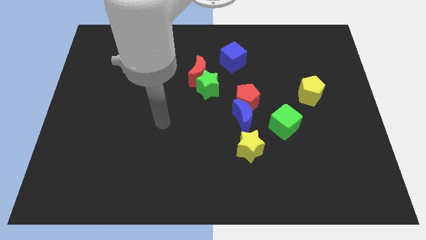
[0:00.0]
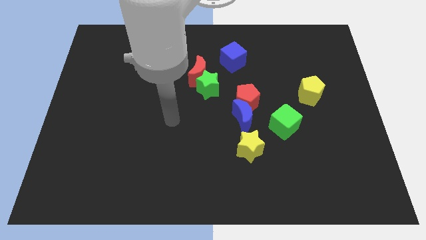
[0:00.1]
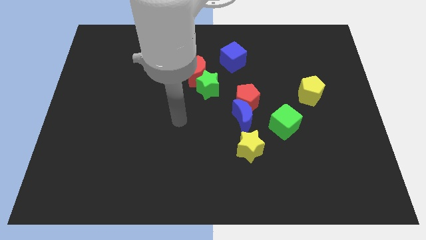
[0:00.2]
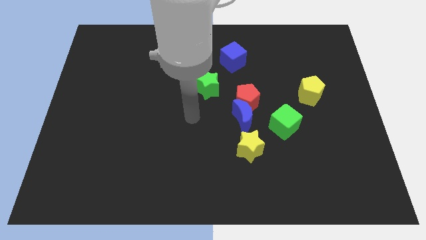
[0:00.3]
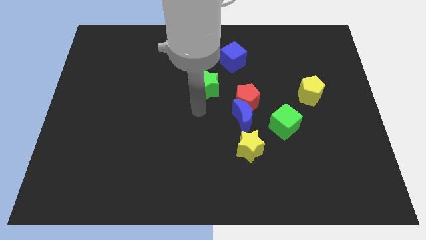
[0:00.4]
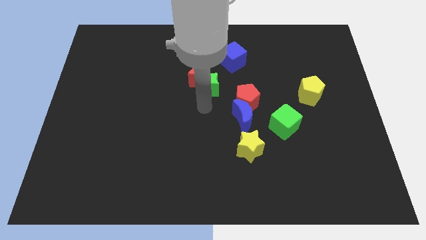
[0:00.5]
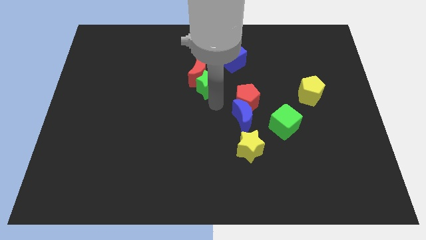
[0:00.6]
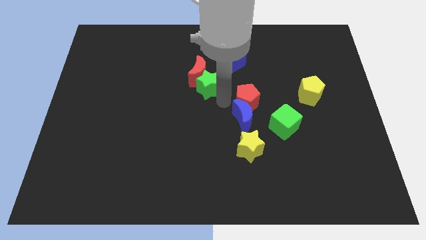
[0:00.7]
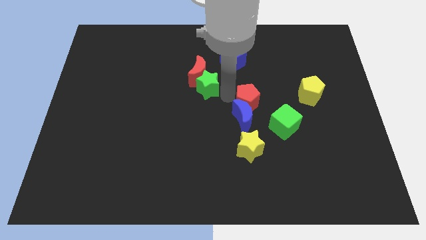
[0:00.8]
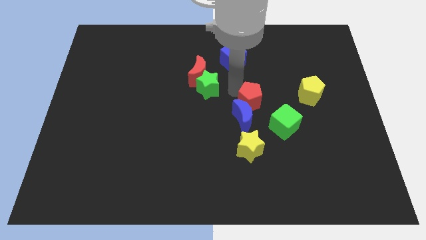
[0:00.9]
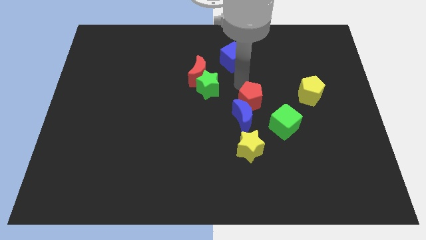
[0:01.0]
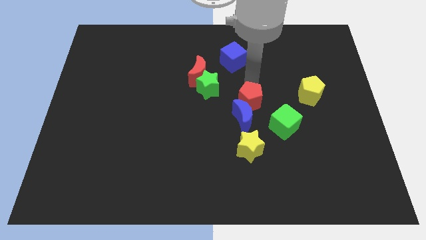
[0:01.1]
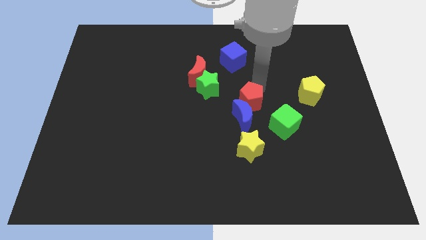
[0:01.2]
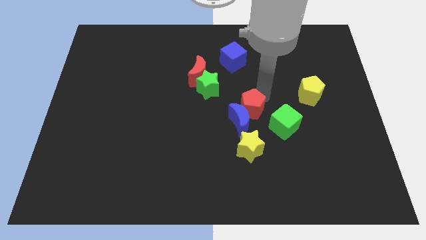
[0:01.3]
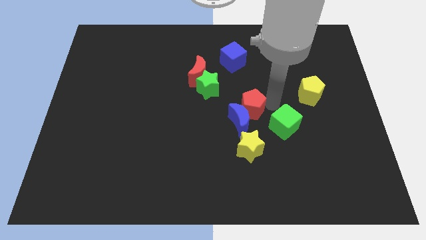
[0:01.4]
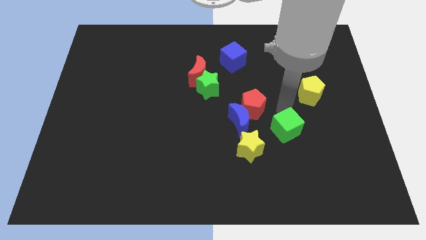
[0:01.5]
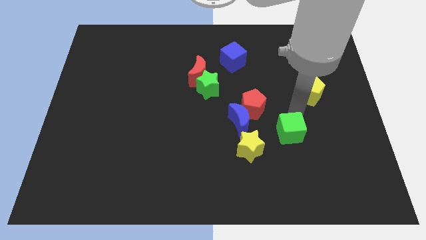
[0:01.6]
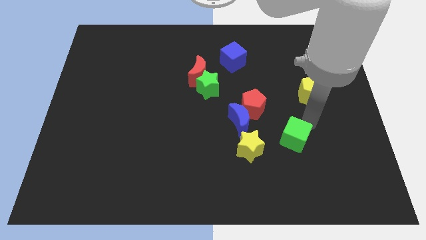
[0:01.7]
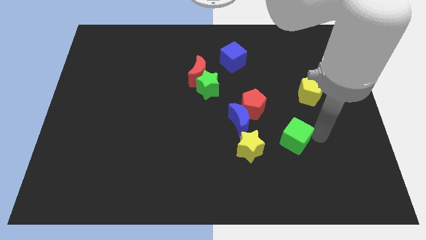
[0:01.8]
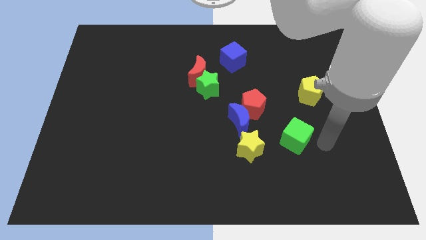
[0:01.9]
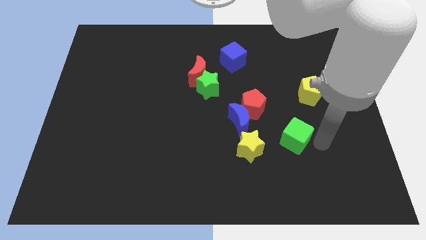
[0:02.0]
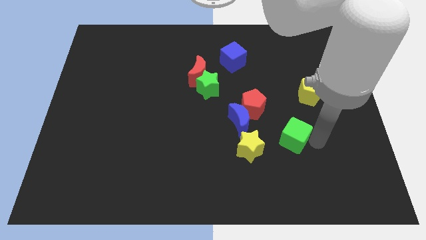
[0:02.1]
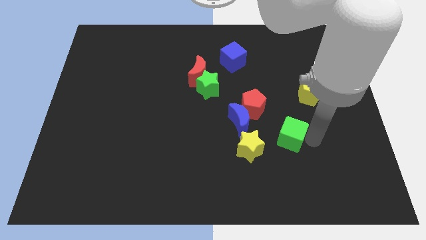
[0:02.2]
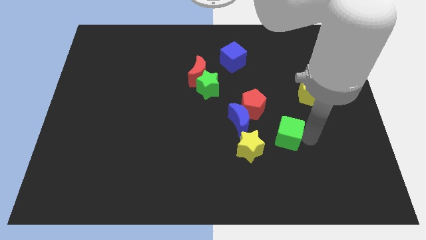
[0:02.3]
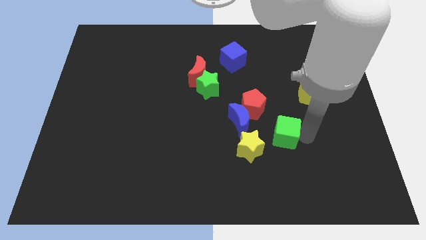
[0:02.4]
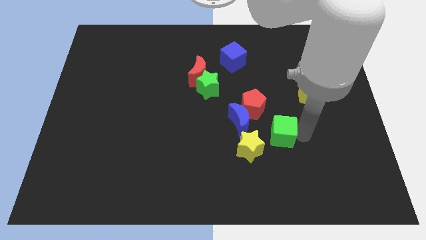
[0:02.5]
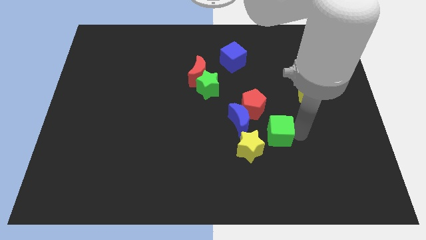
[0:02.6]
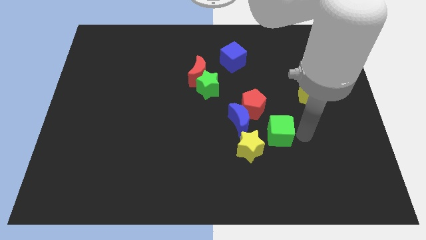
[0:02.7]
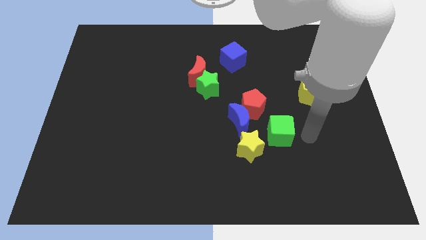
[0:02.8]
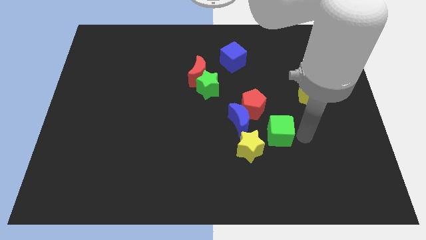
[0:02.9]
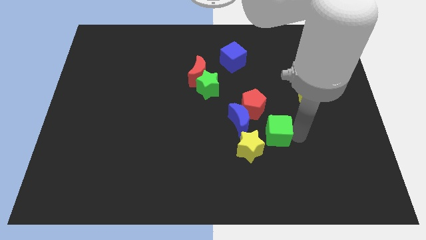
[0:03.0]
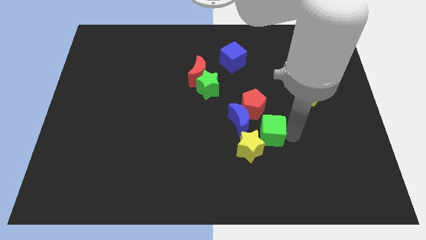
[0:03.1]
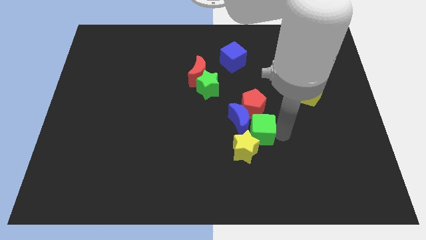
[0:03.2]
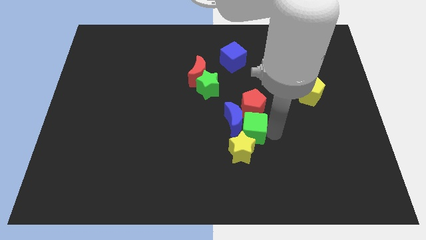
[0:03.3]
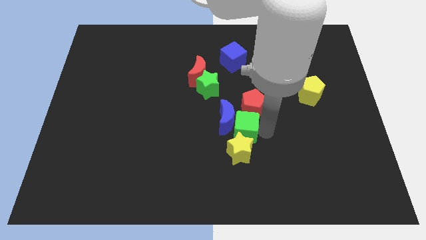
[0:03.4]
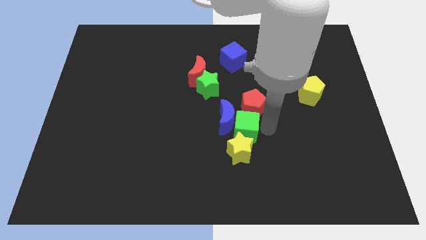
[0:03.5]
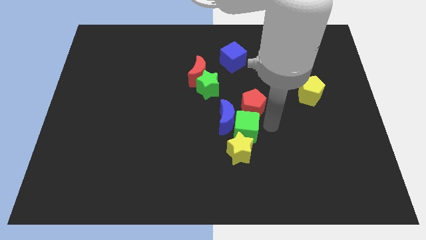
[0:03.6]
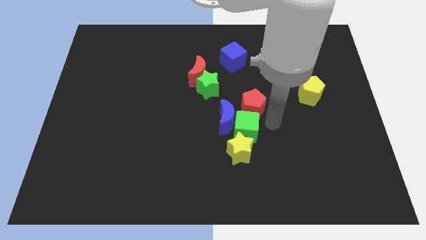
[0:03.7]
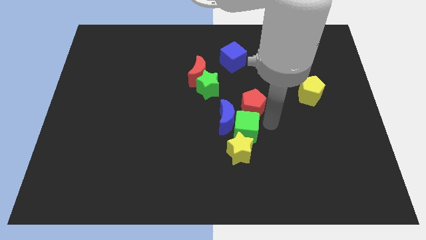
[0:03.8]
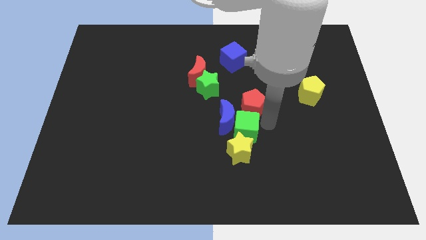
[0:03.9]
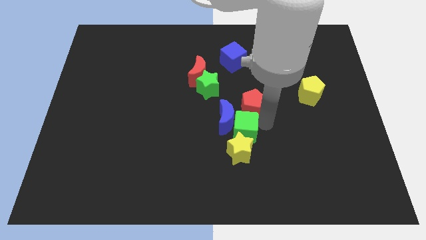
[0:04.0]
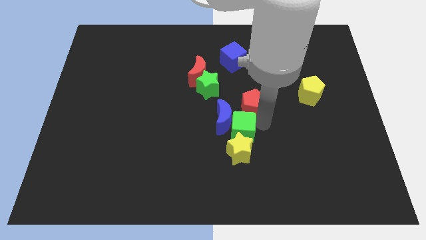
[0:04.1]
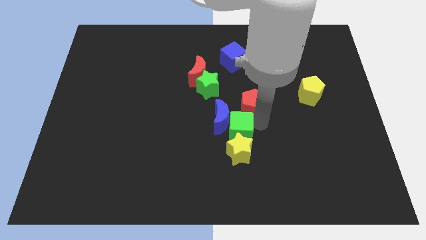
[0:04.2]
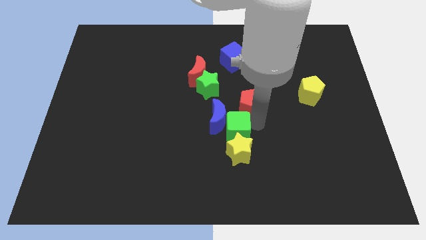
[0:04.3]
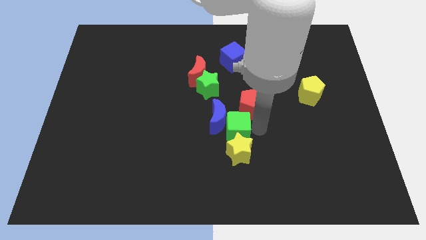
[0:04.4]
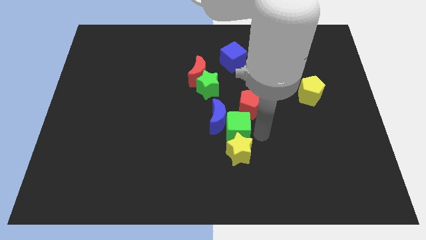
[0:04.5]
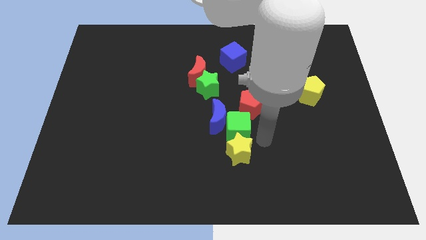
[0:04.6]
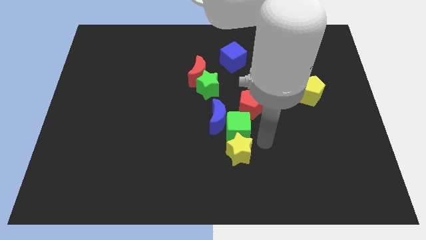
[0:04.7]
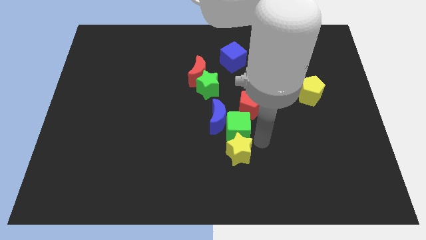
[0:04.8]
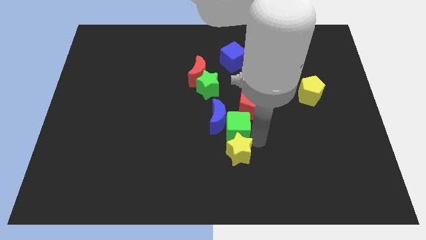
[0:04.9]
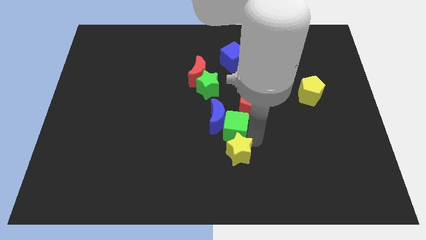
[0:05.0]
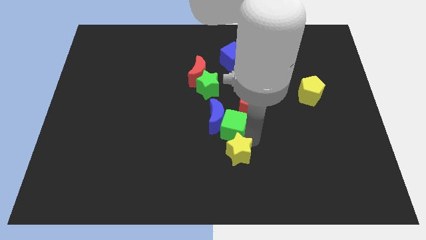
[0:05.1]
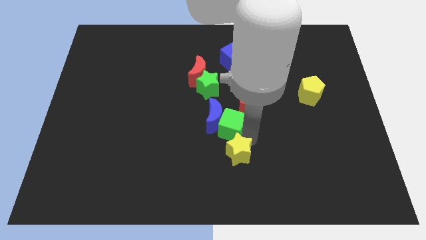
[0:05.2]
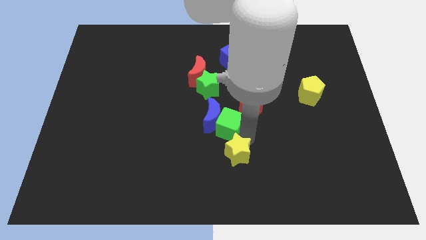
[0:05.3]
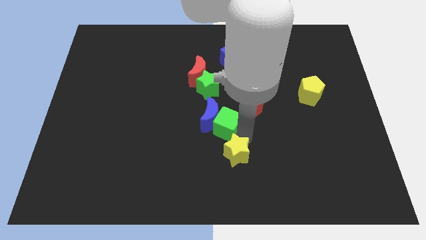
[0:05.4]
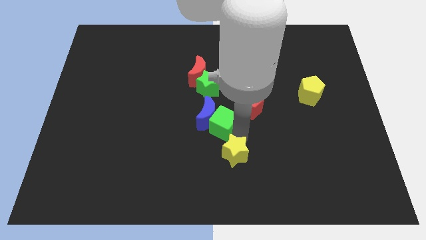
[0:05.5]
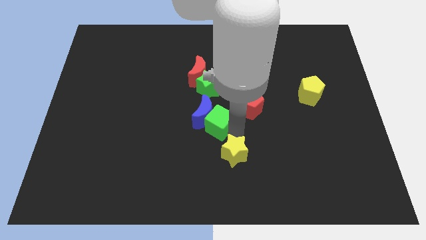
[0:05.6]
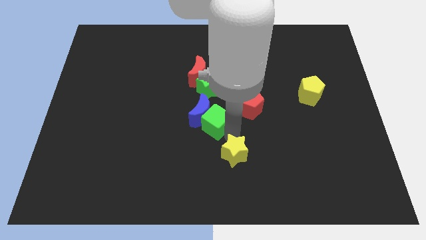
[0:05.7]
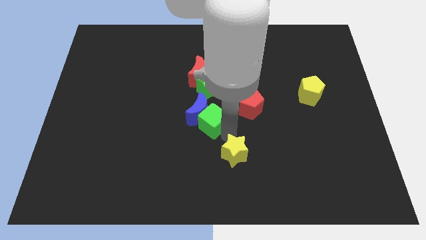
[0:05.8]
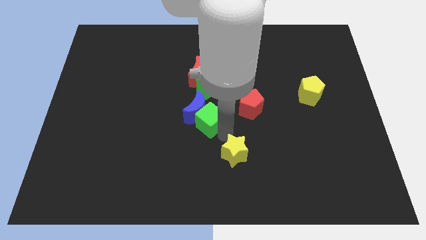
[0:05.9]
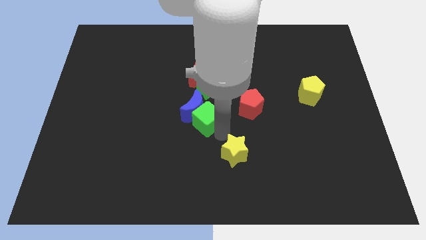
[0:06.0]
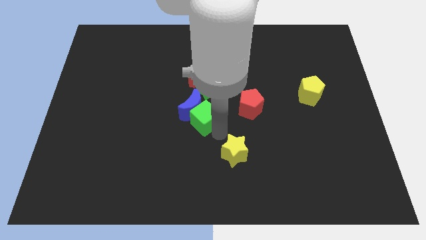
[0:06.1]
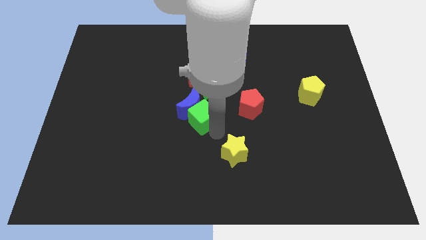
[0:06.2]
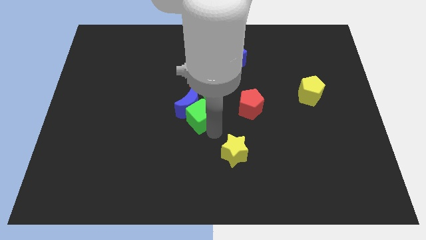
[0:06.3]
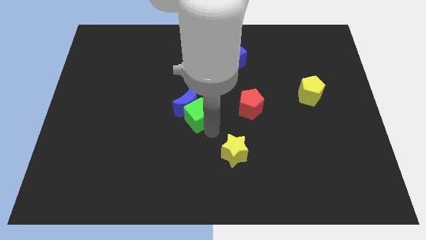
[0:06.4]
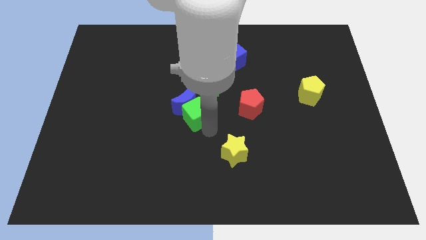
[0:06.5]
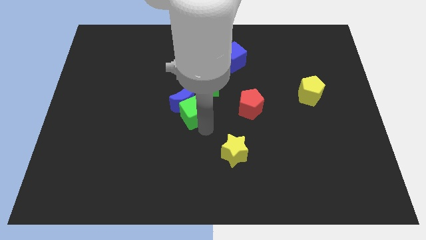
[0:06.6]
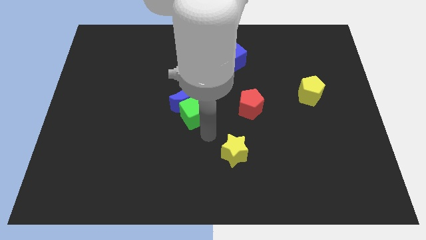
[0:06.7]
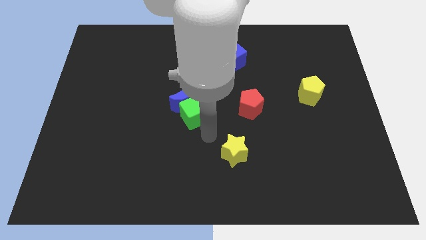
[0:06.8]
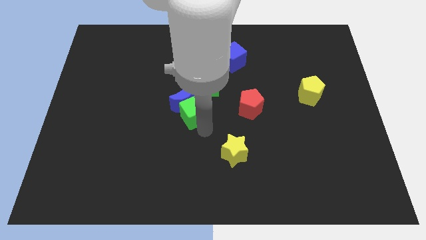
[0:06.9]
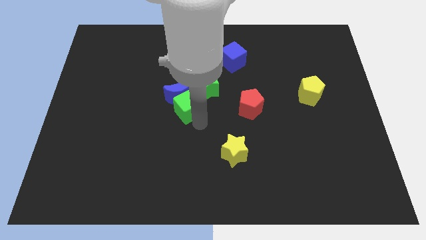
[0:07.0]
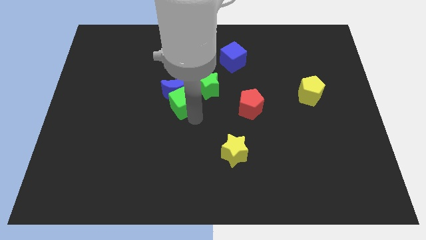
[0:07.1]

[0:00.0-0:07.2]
slide the green cube to the bottom left of the red moon
